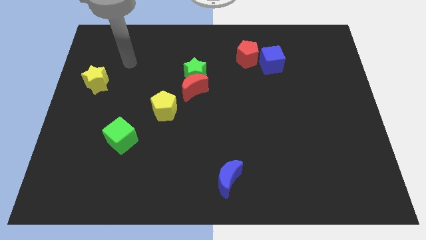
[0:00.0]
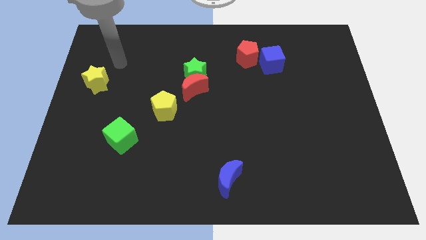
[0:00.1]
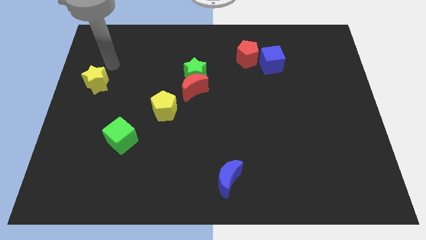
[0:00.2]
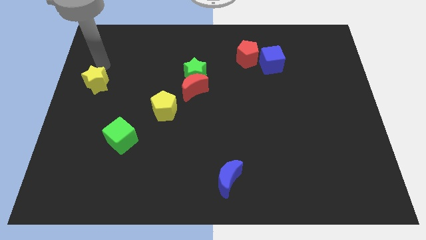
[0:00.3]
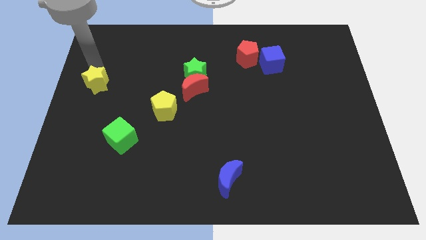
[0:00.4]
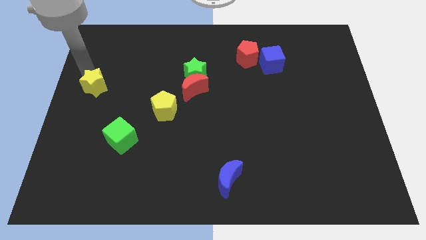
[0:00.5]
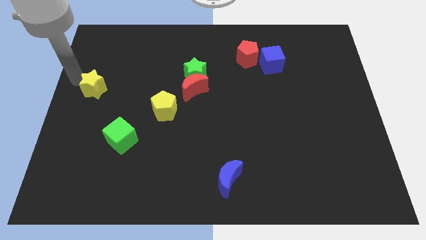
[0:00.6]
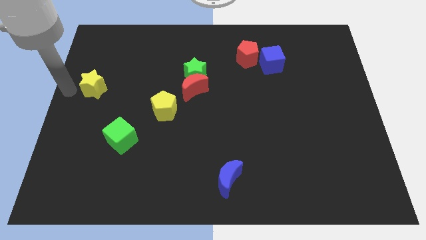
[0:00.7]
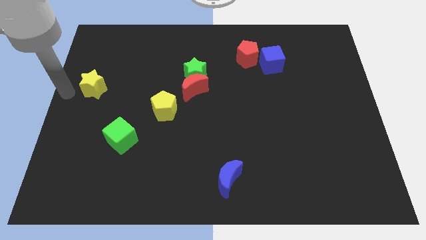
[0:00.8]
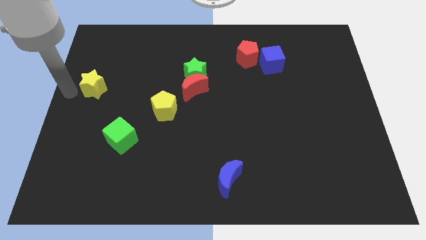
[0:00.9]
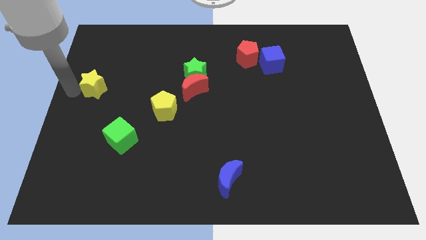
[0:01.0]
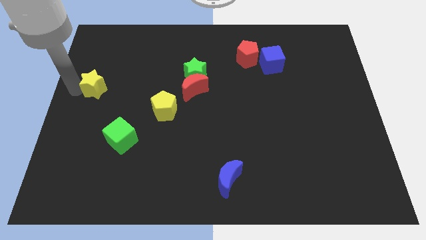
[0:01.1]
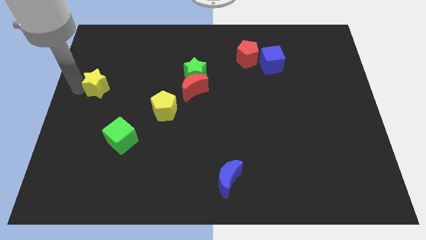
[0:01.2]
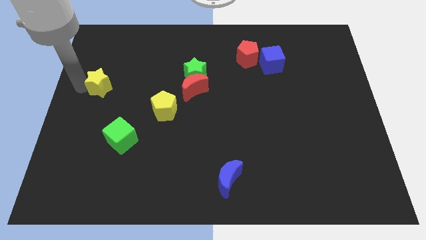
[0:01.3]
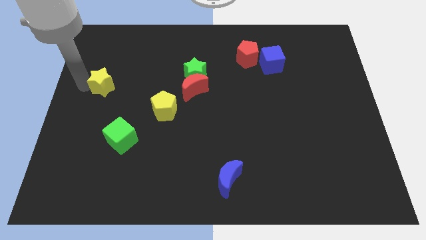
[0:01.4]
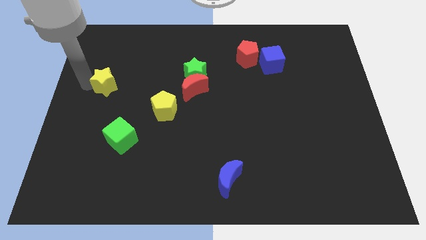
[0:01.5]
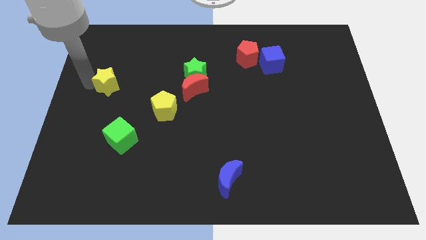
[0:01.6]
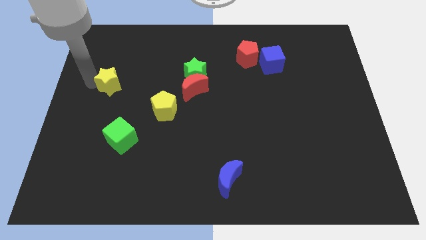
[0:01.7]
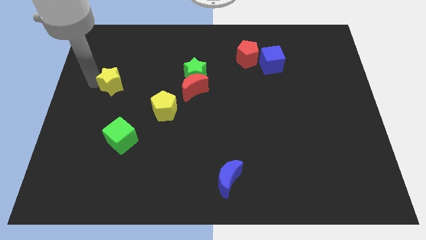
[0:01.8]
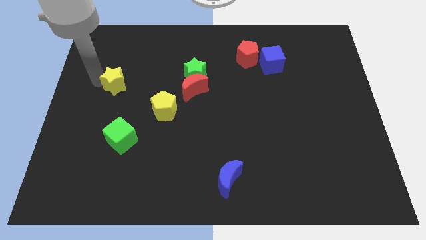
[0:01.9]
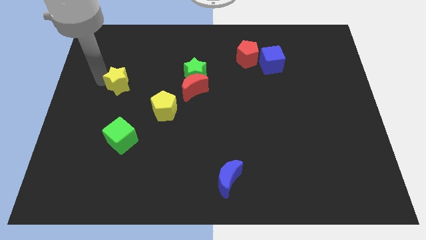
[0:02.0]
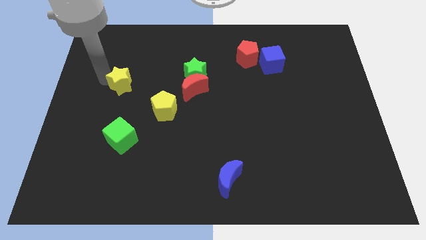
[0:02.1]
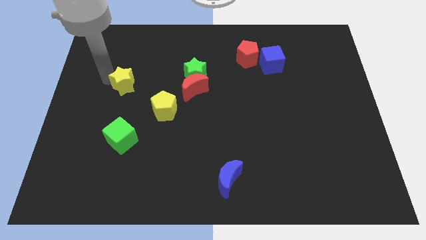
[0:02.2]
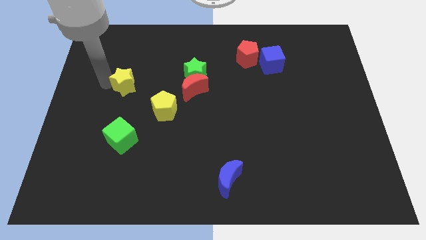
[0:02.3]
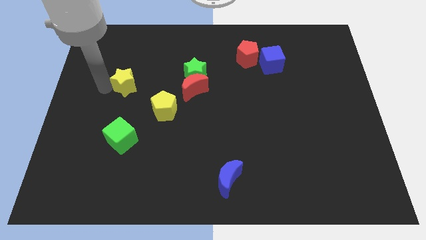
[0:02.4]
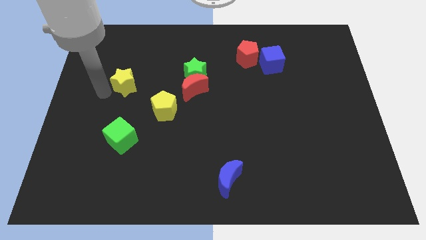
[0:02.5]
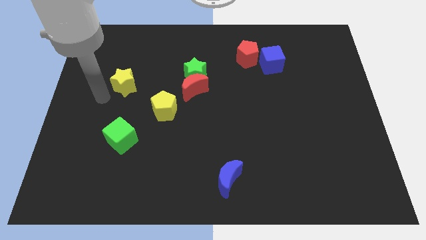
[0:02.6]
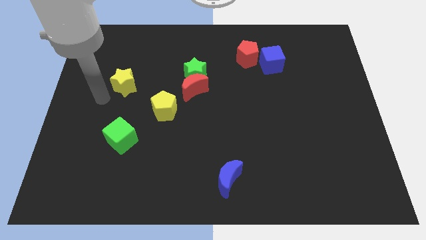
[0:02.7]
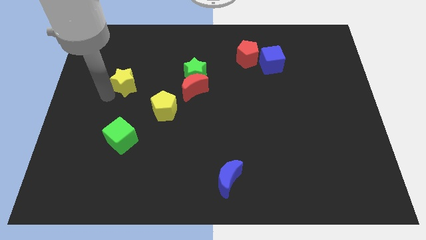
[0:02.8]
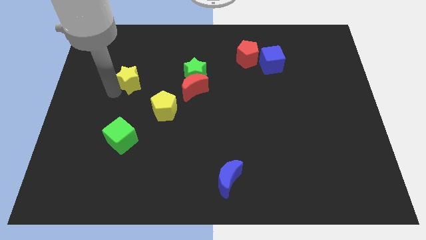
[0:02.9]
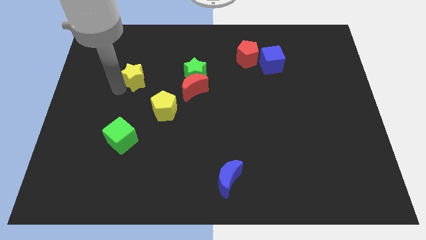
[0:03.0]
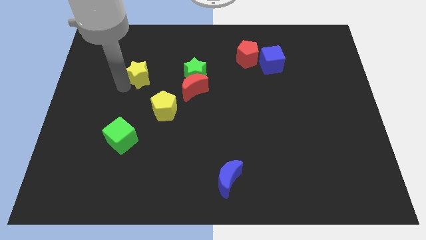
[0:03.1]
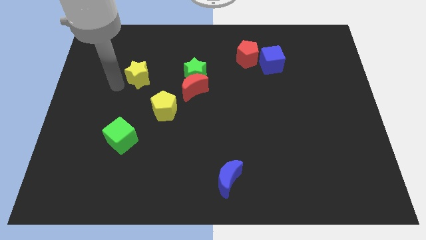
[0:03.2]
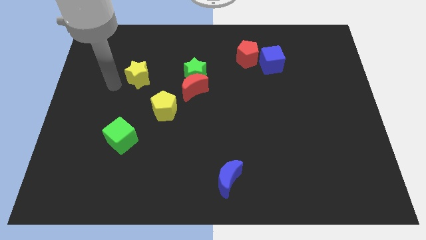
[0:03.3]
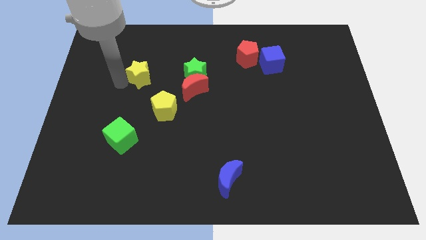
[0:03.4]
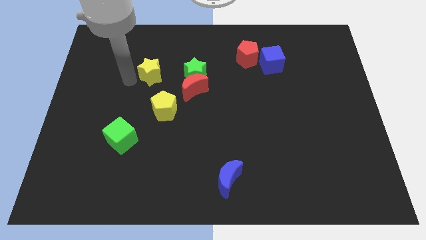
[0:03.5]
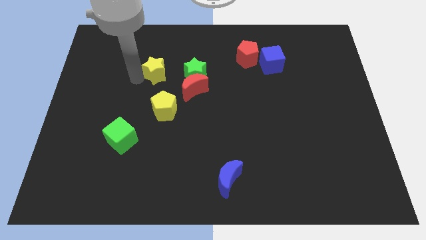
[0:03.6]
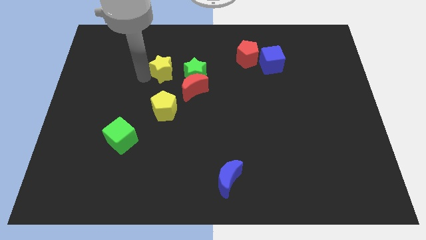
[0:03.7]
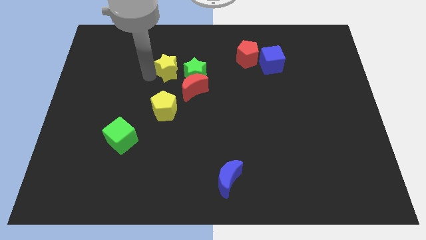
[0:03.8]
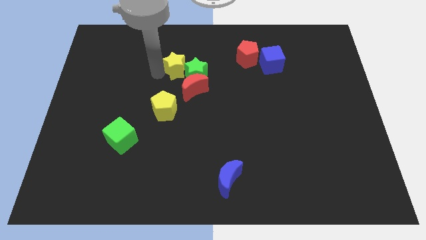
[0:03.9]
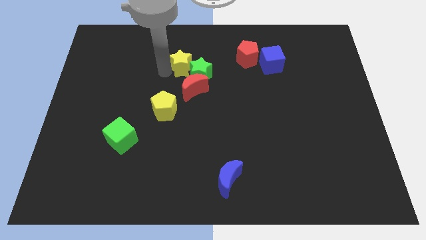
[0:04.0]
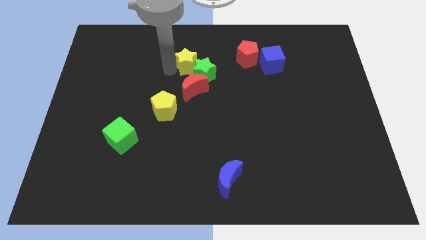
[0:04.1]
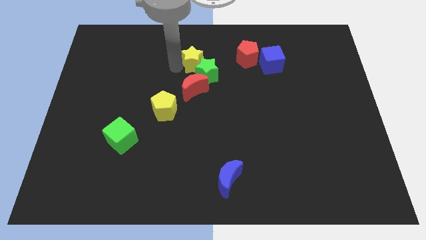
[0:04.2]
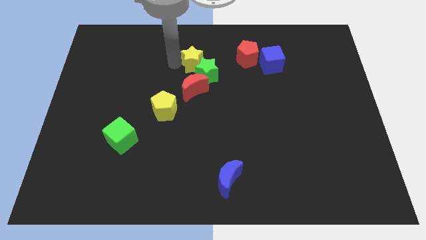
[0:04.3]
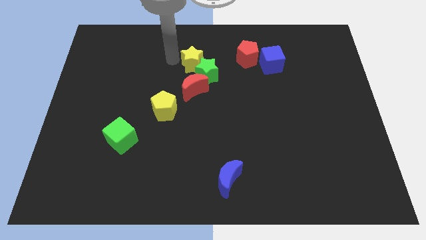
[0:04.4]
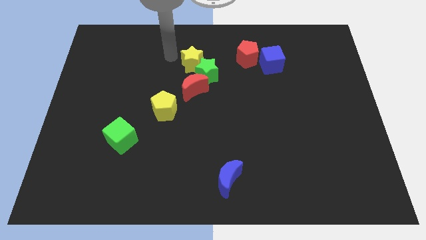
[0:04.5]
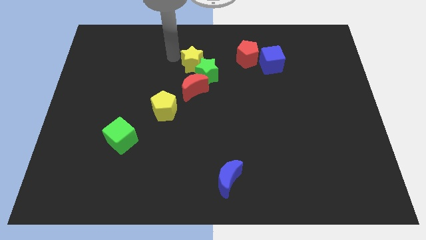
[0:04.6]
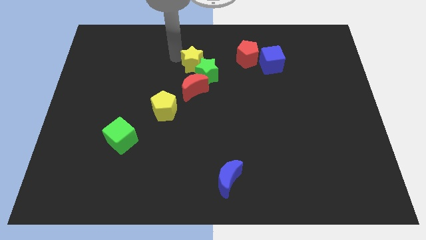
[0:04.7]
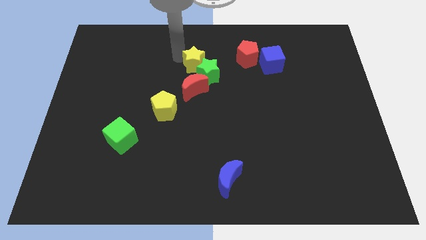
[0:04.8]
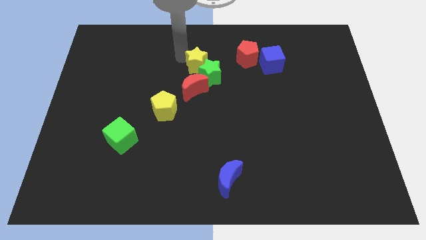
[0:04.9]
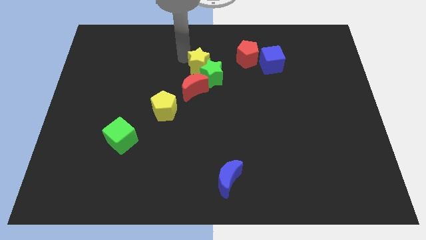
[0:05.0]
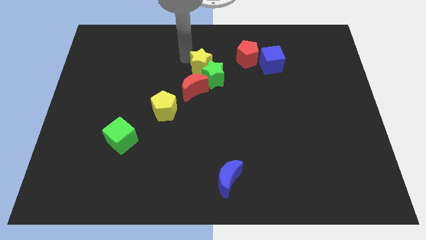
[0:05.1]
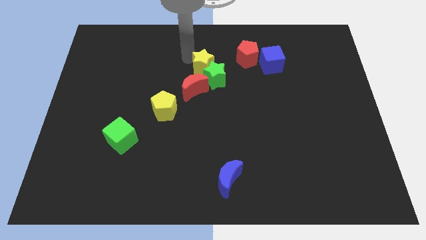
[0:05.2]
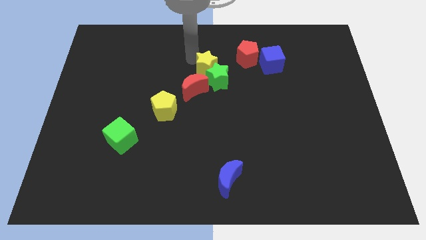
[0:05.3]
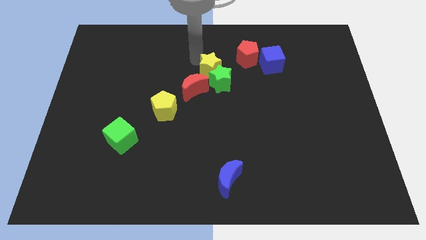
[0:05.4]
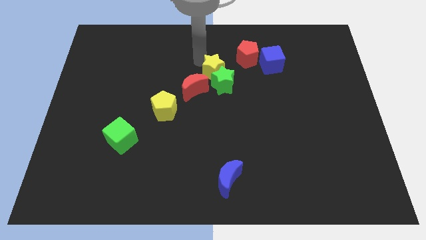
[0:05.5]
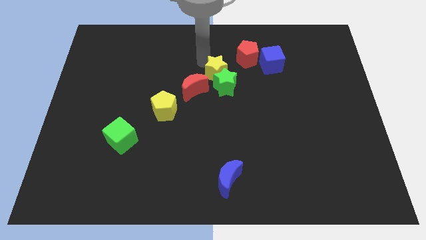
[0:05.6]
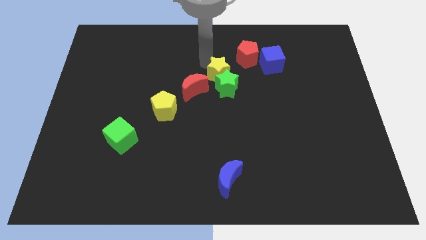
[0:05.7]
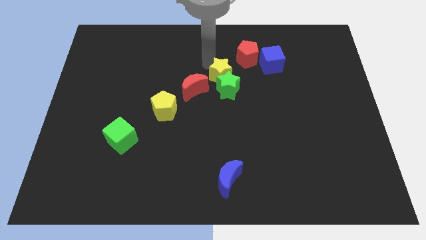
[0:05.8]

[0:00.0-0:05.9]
slide the yellow star just right of the red moon

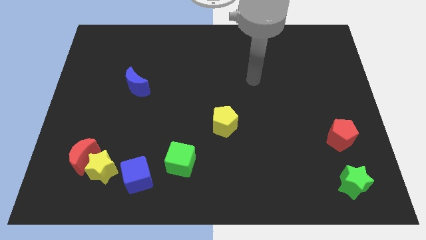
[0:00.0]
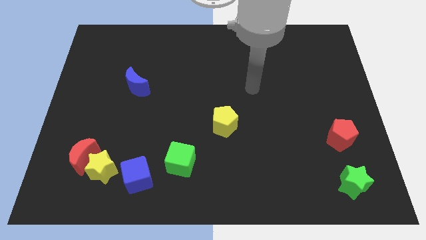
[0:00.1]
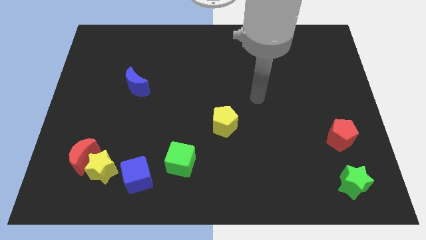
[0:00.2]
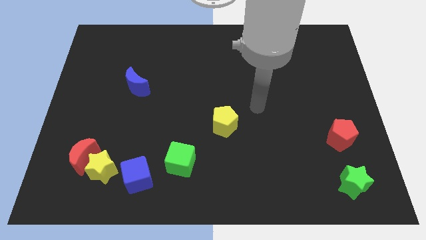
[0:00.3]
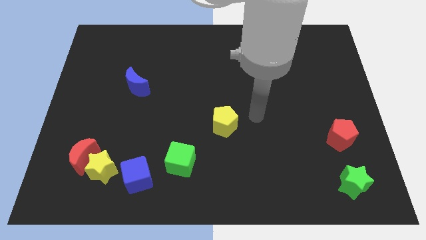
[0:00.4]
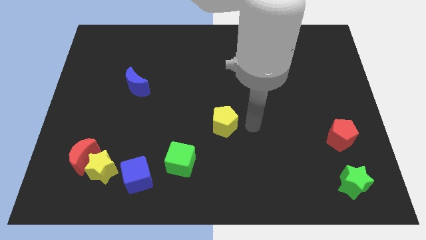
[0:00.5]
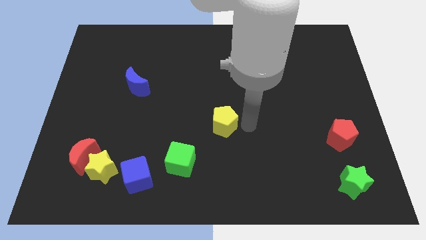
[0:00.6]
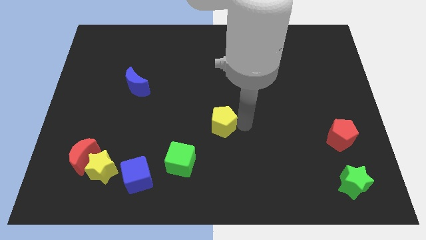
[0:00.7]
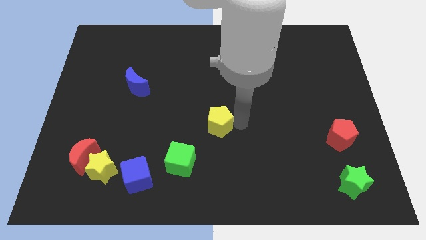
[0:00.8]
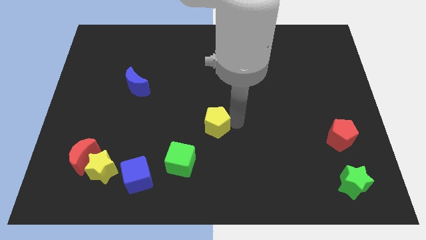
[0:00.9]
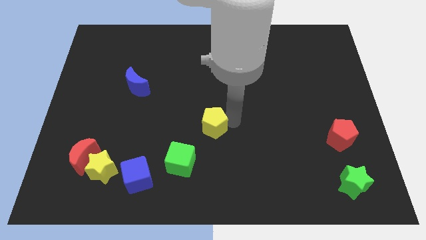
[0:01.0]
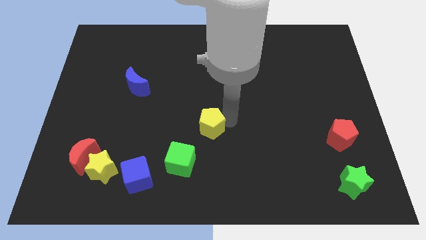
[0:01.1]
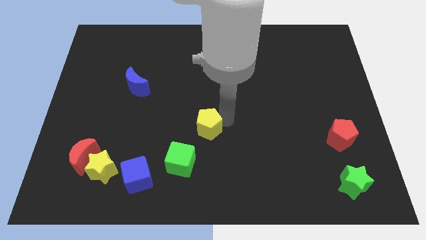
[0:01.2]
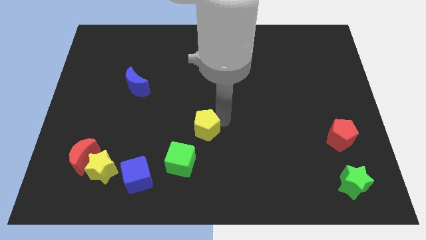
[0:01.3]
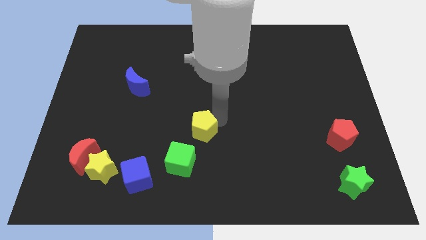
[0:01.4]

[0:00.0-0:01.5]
put the yellow pentagon to the top side of the green cube
